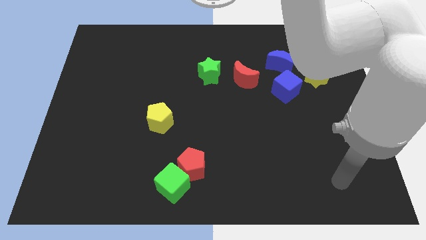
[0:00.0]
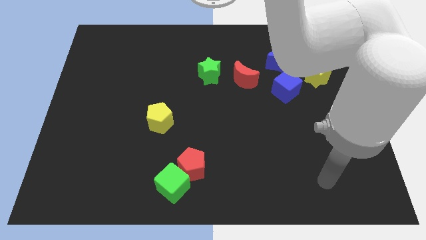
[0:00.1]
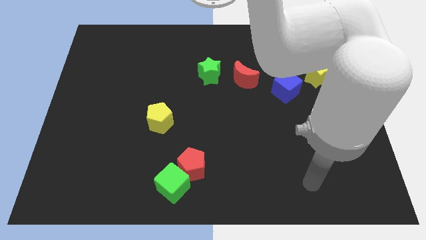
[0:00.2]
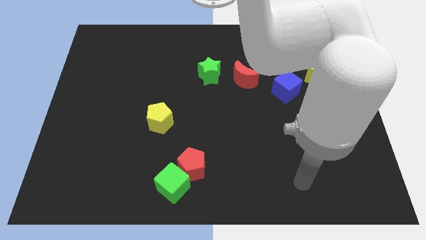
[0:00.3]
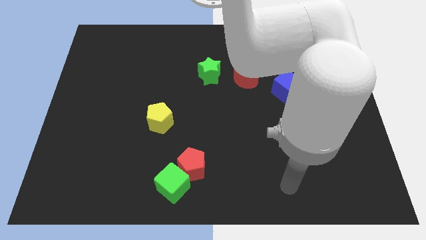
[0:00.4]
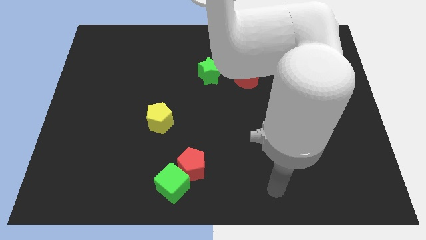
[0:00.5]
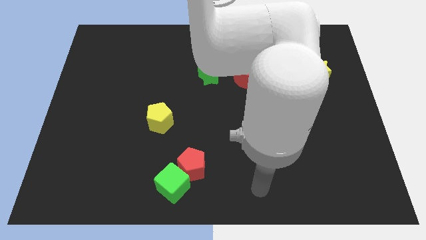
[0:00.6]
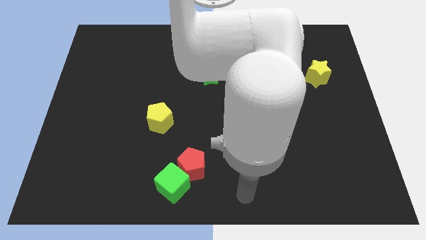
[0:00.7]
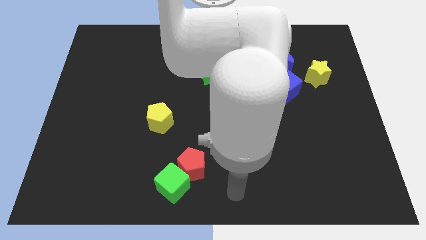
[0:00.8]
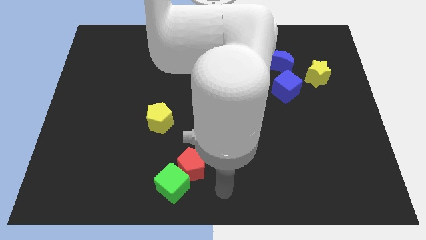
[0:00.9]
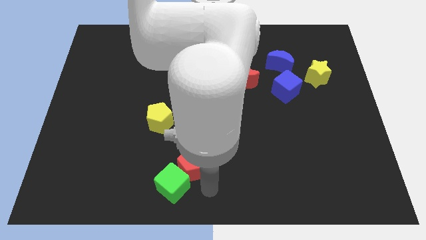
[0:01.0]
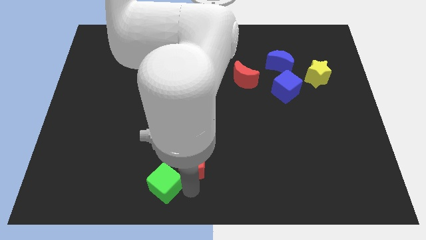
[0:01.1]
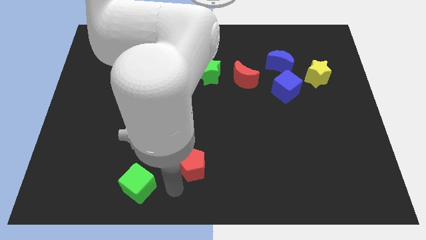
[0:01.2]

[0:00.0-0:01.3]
move the red pentagon away from the green cube

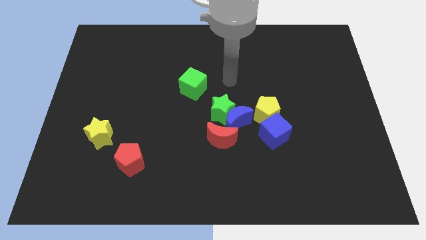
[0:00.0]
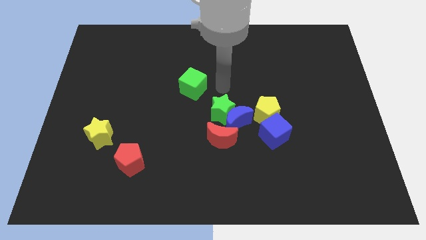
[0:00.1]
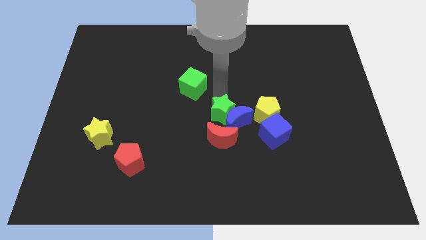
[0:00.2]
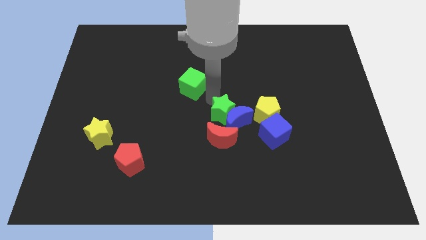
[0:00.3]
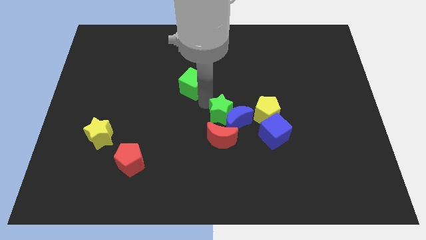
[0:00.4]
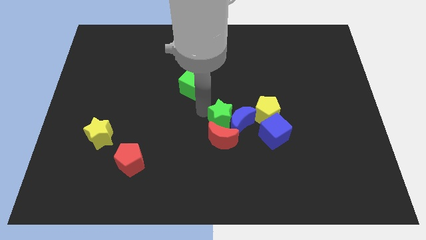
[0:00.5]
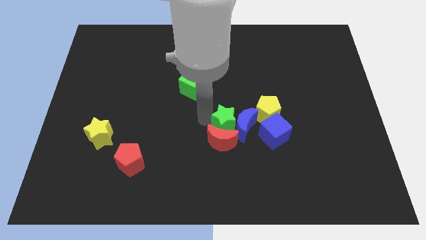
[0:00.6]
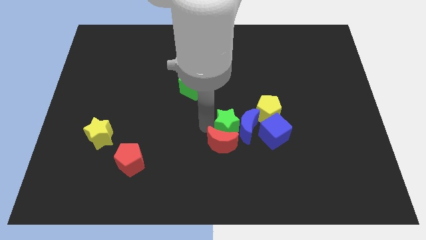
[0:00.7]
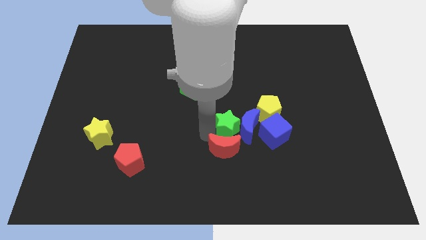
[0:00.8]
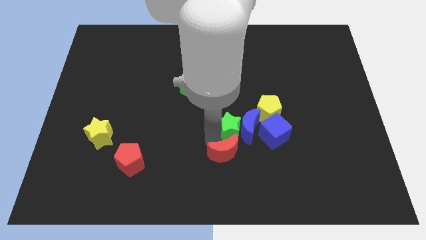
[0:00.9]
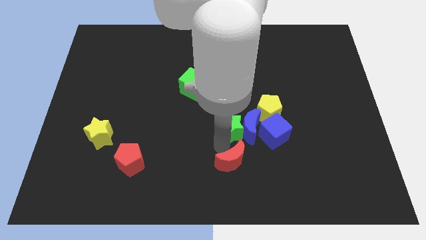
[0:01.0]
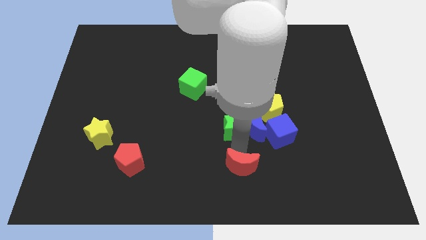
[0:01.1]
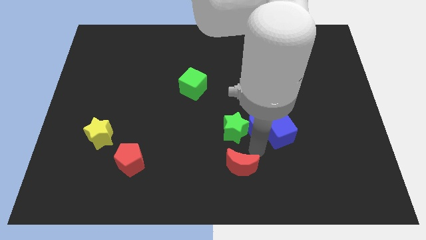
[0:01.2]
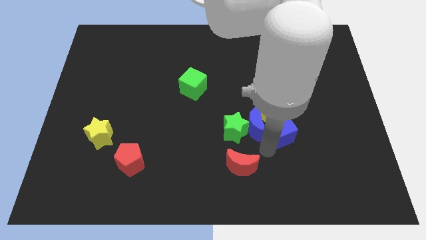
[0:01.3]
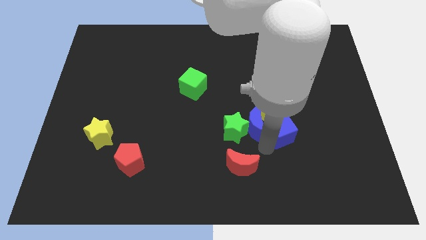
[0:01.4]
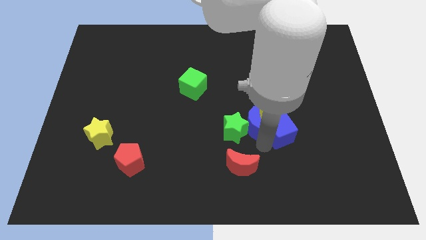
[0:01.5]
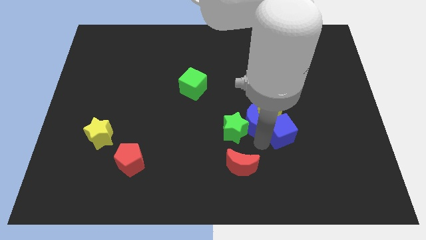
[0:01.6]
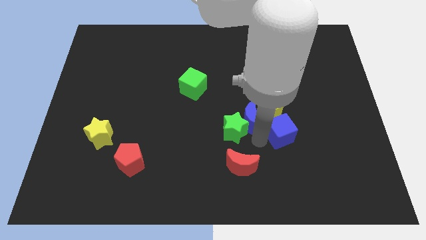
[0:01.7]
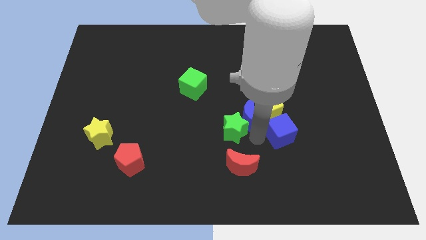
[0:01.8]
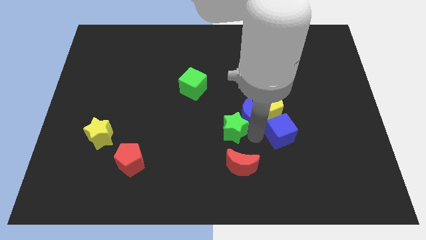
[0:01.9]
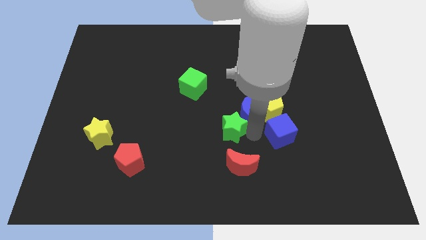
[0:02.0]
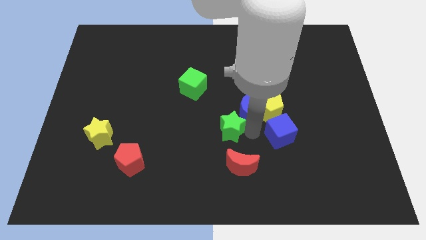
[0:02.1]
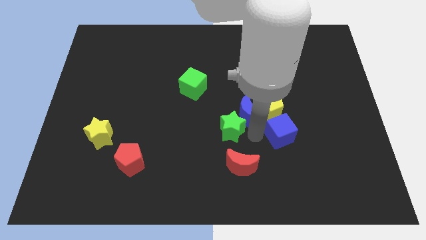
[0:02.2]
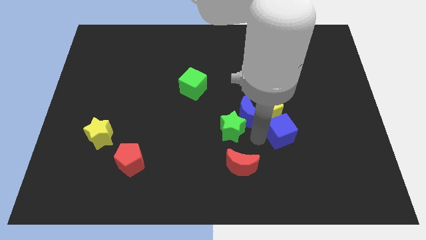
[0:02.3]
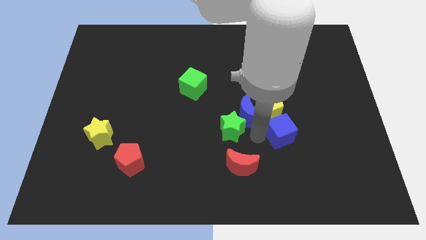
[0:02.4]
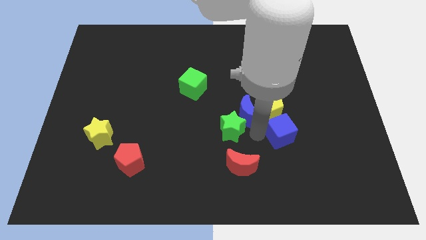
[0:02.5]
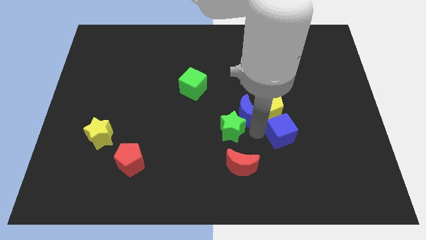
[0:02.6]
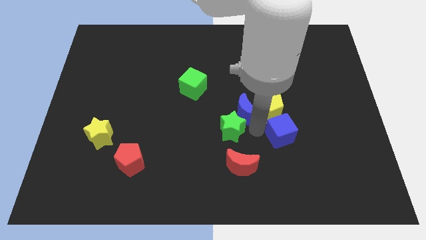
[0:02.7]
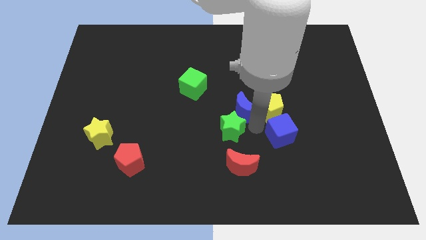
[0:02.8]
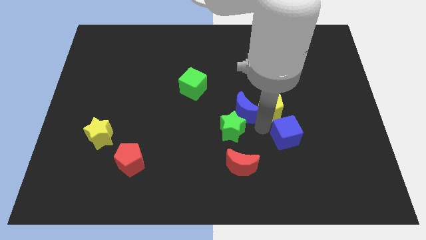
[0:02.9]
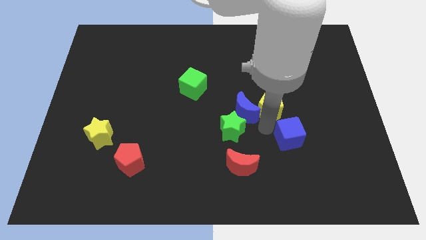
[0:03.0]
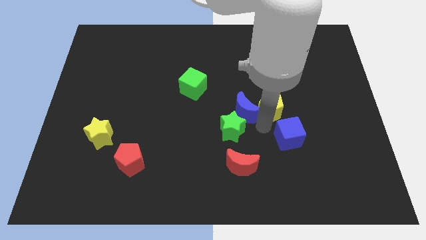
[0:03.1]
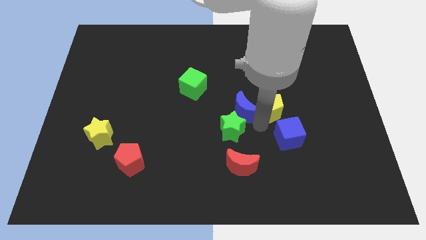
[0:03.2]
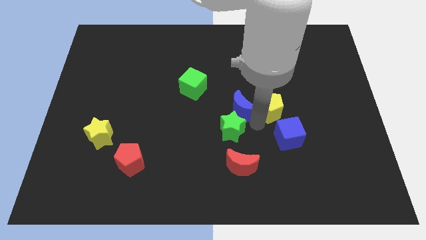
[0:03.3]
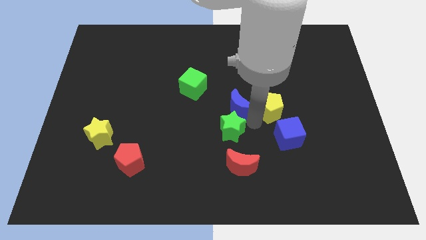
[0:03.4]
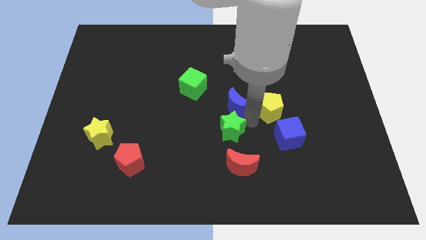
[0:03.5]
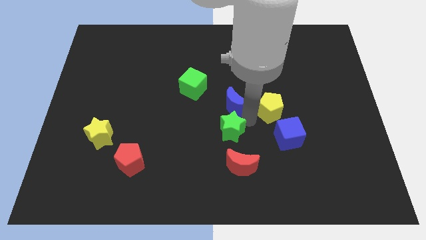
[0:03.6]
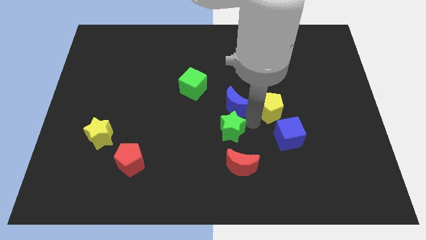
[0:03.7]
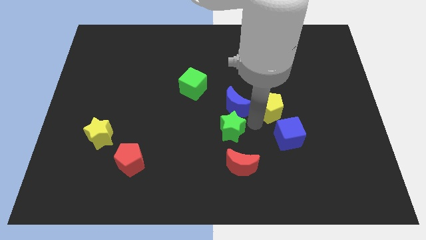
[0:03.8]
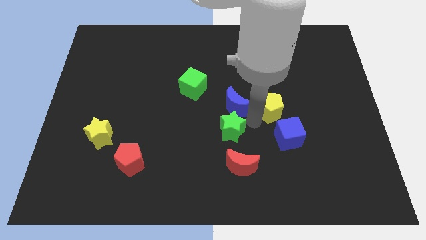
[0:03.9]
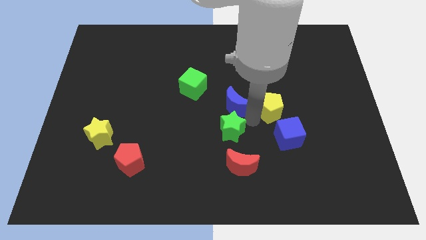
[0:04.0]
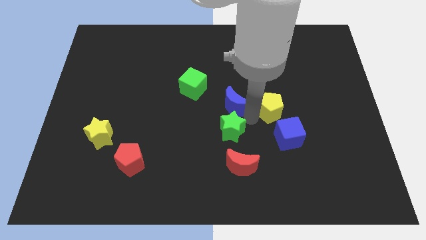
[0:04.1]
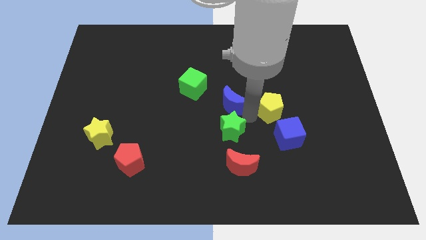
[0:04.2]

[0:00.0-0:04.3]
move the blue moon away from the group

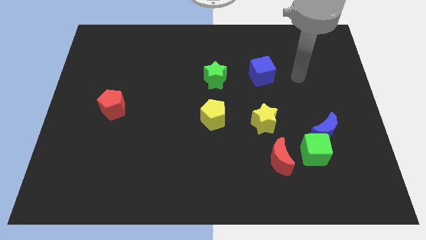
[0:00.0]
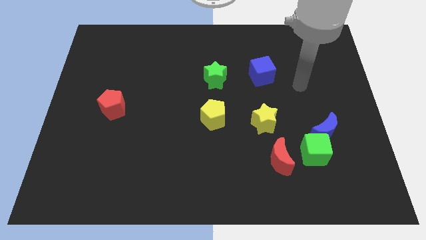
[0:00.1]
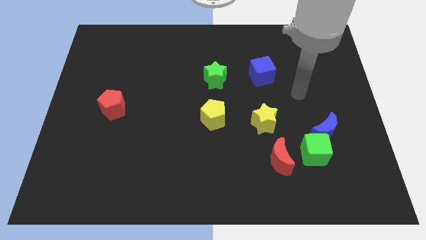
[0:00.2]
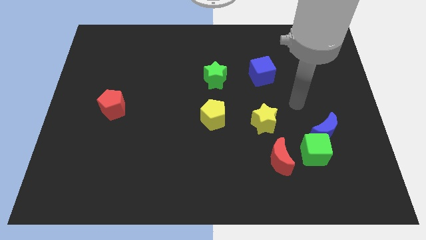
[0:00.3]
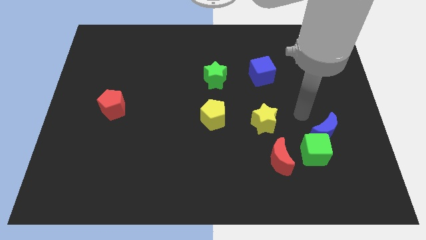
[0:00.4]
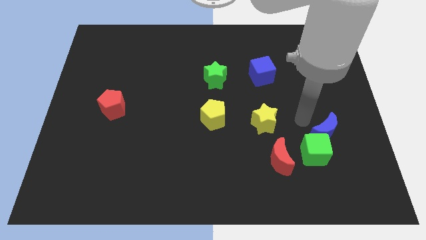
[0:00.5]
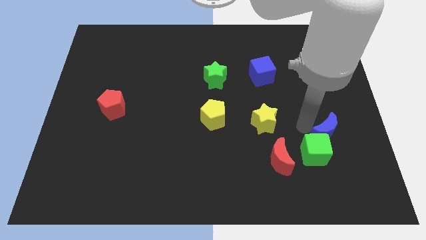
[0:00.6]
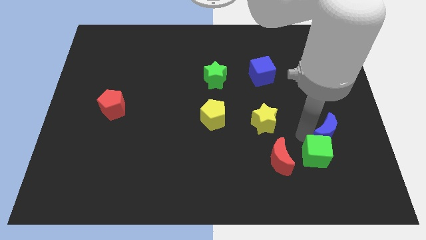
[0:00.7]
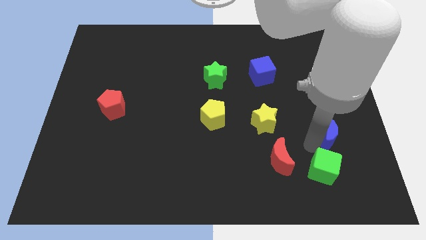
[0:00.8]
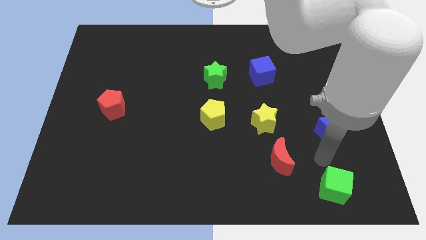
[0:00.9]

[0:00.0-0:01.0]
separate the blue moon from the green cube

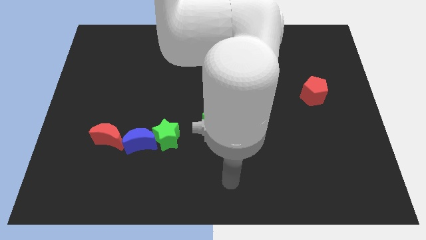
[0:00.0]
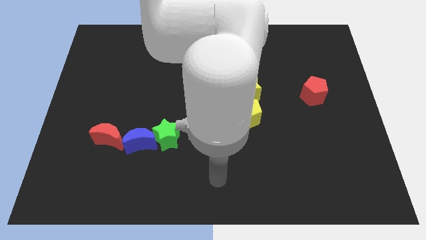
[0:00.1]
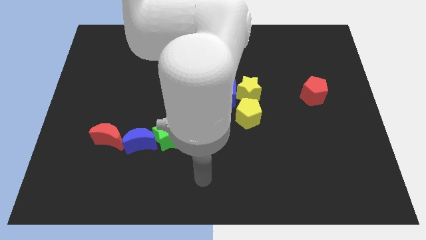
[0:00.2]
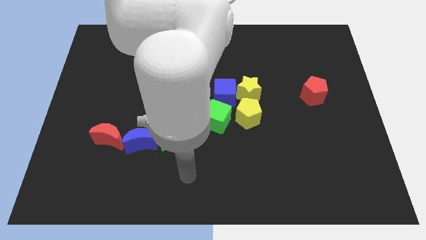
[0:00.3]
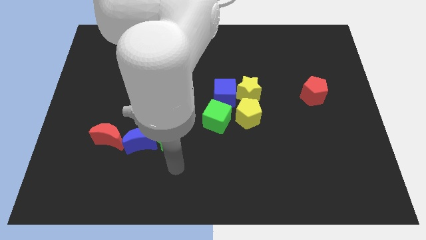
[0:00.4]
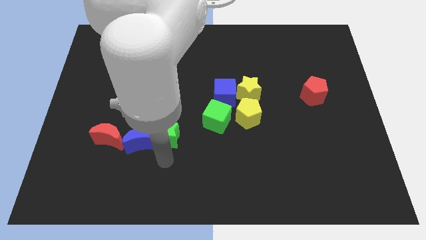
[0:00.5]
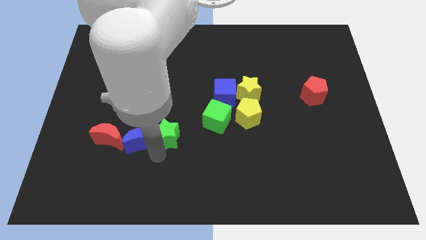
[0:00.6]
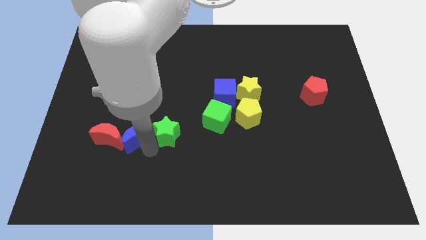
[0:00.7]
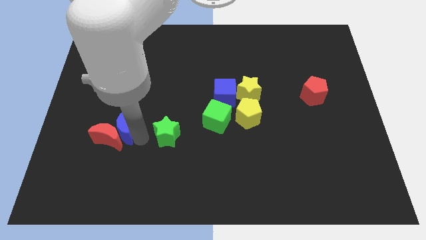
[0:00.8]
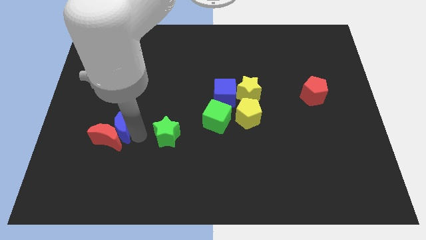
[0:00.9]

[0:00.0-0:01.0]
pull the green star apart from the blue moon

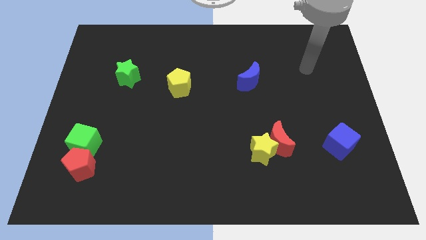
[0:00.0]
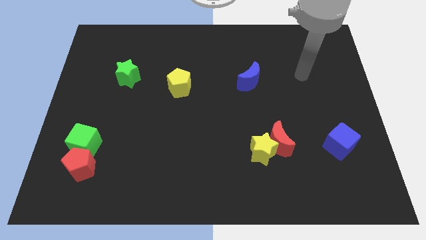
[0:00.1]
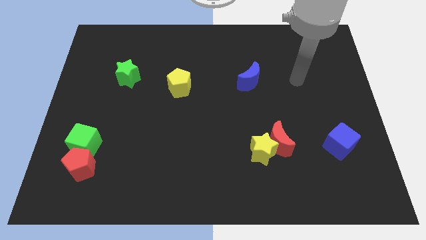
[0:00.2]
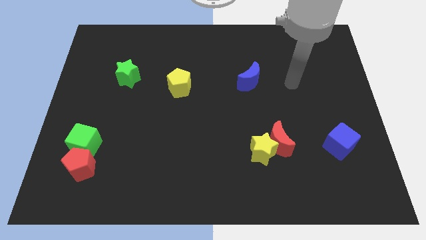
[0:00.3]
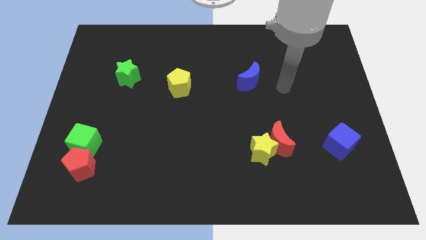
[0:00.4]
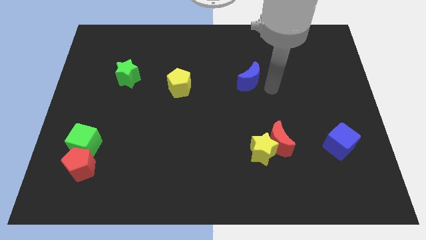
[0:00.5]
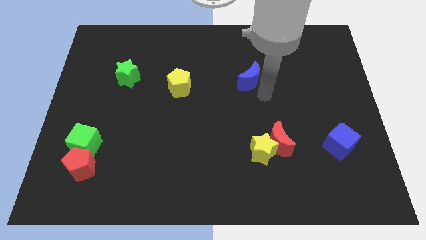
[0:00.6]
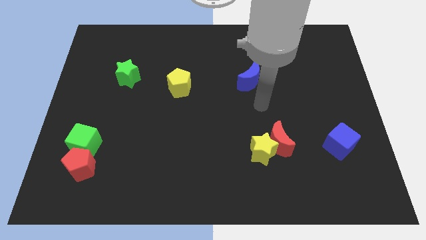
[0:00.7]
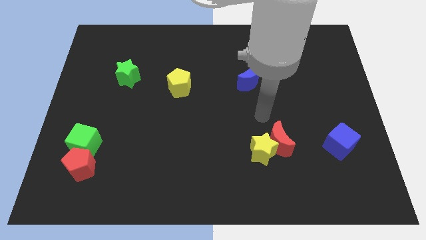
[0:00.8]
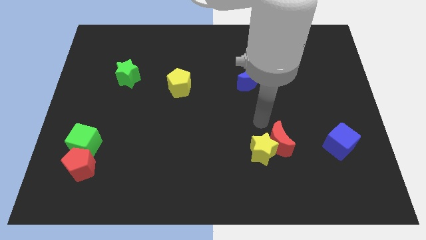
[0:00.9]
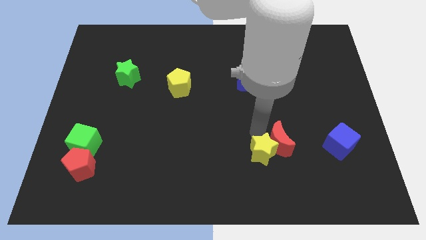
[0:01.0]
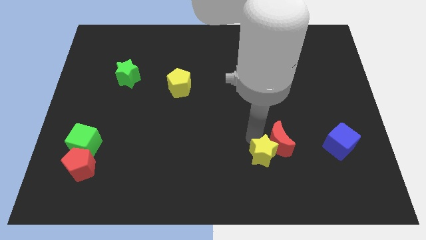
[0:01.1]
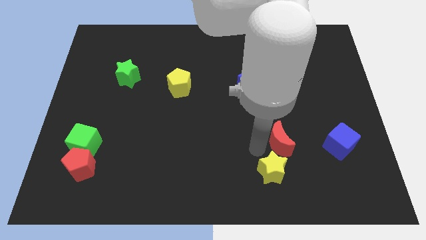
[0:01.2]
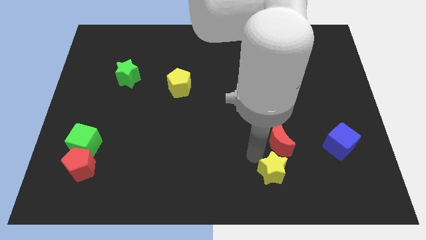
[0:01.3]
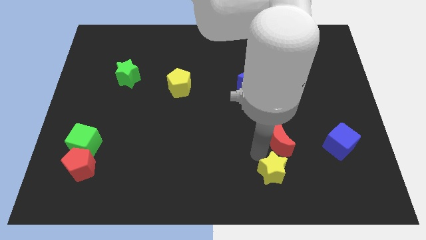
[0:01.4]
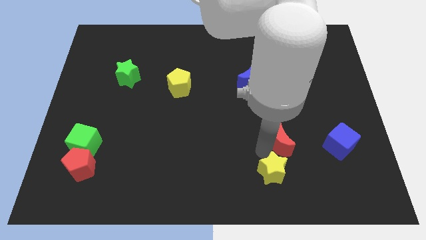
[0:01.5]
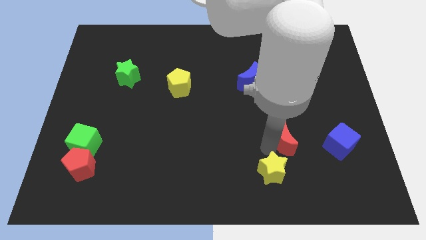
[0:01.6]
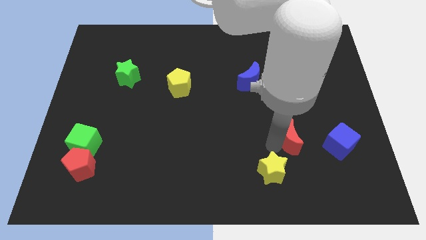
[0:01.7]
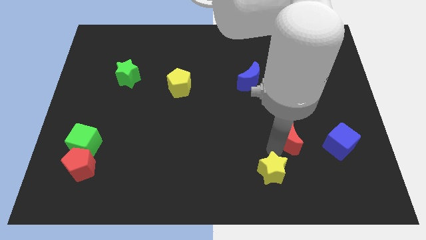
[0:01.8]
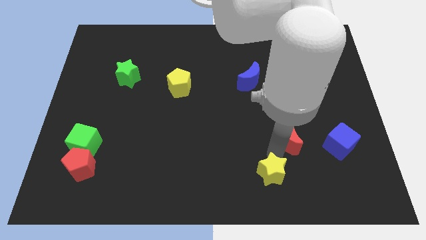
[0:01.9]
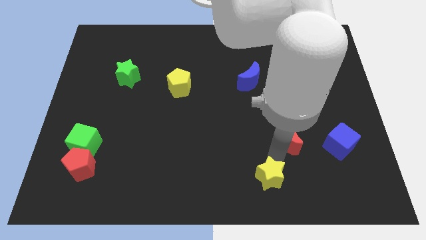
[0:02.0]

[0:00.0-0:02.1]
separate the red moon from the yellow star
